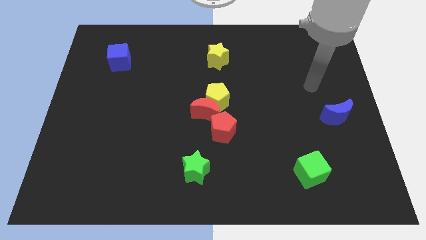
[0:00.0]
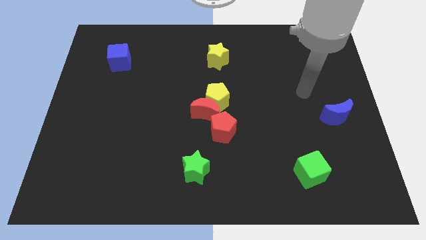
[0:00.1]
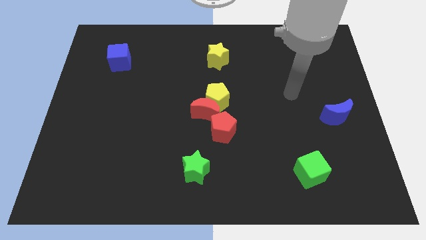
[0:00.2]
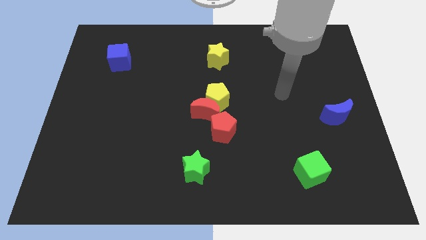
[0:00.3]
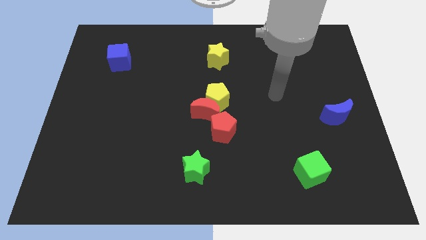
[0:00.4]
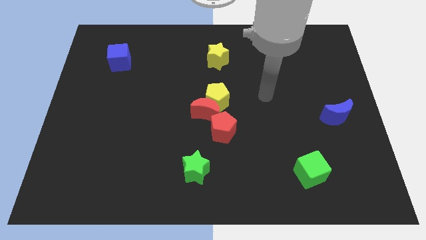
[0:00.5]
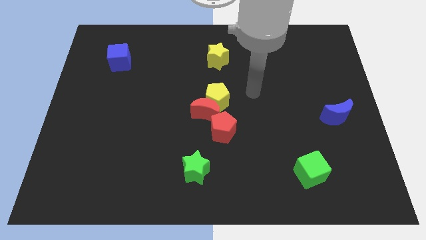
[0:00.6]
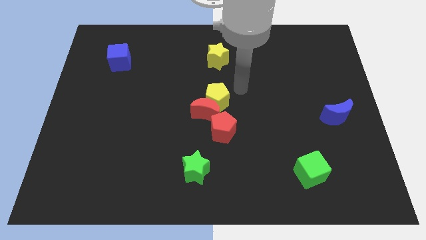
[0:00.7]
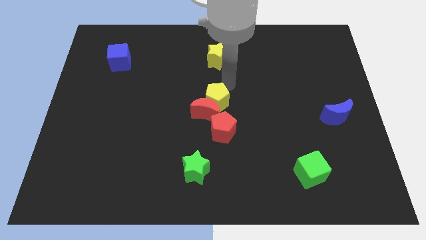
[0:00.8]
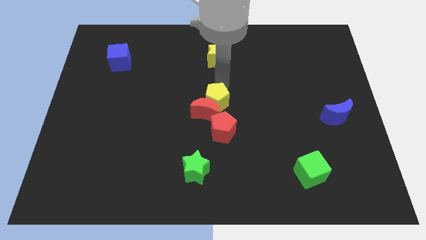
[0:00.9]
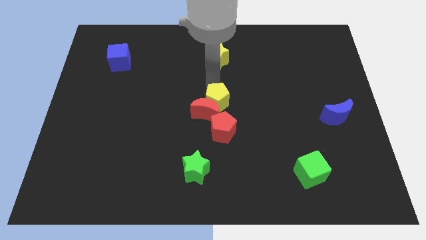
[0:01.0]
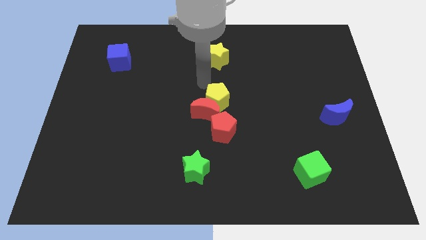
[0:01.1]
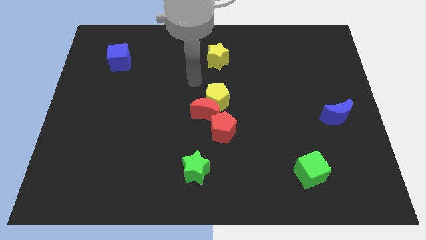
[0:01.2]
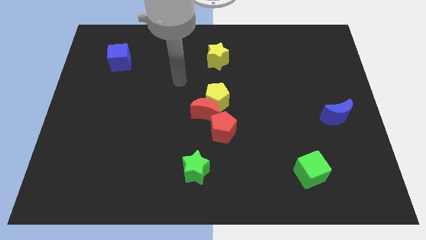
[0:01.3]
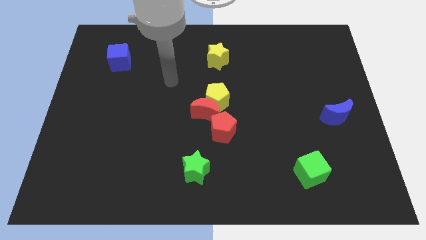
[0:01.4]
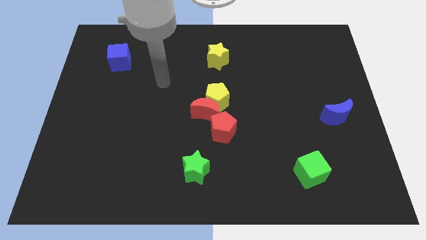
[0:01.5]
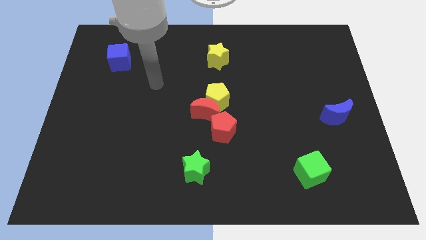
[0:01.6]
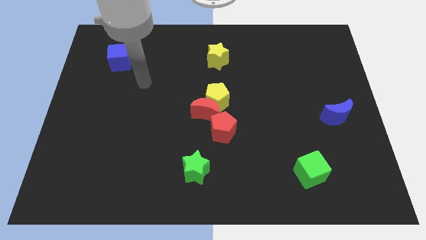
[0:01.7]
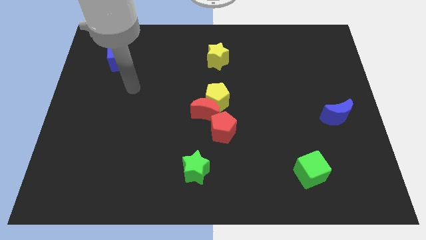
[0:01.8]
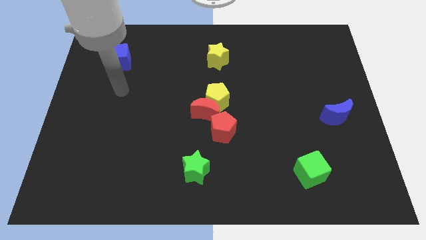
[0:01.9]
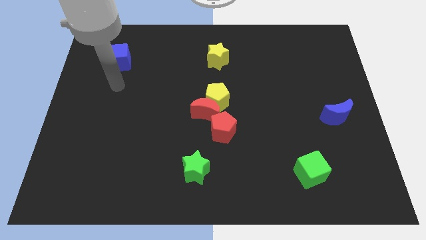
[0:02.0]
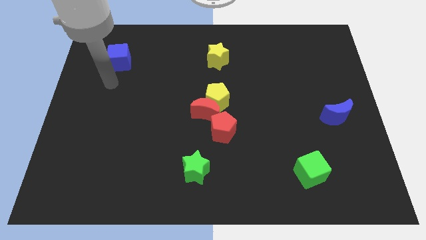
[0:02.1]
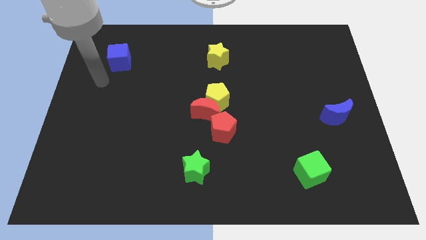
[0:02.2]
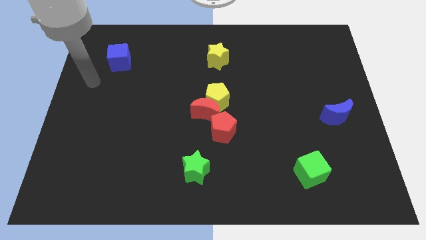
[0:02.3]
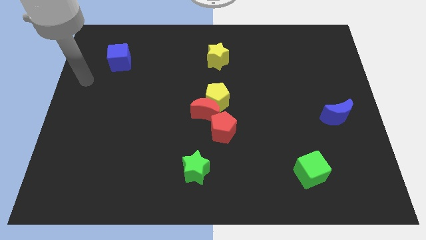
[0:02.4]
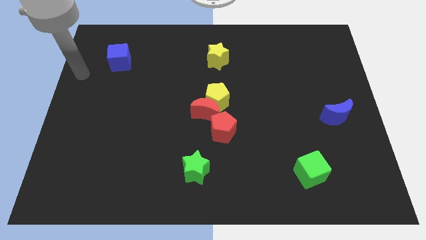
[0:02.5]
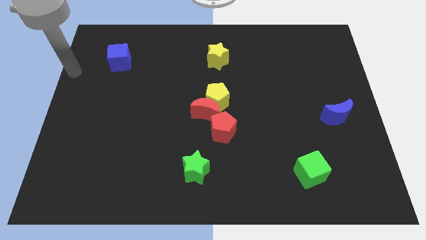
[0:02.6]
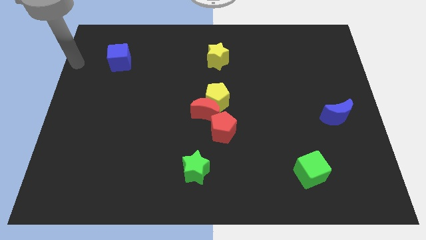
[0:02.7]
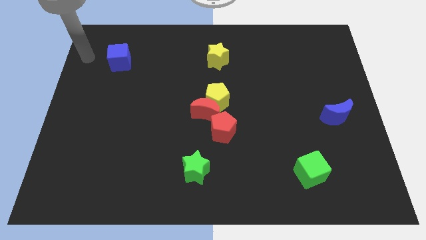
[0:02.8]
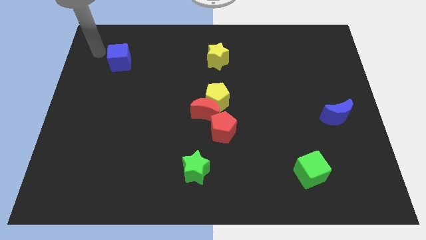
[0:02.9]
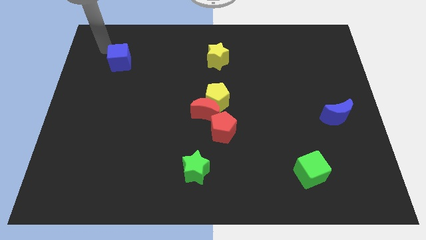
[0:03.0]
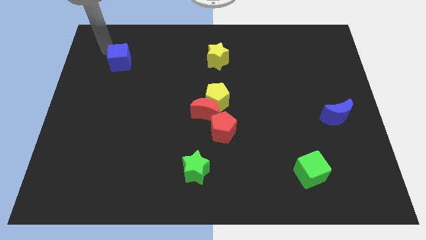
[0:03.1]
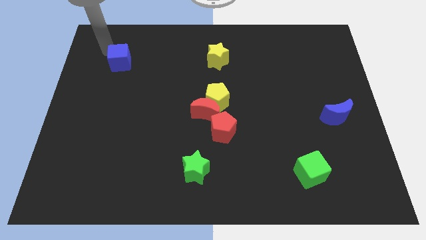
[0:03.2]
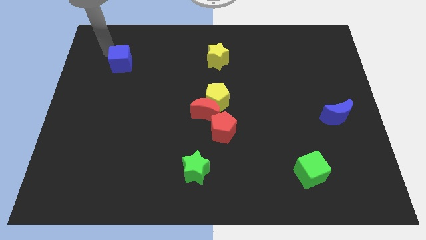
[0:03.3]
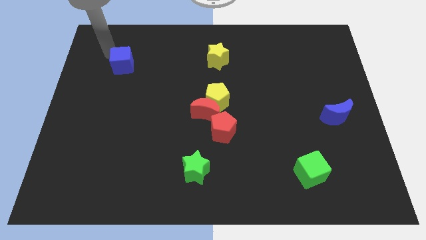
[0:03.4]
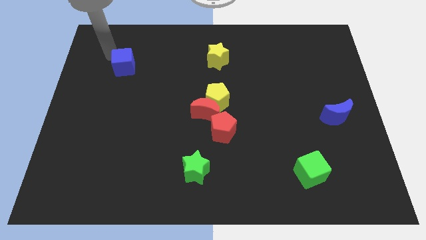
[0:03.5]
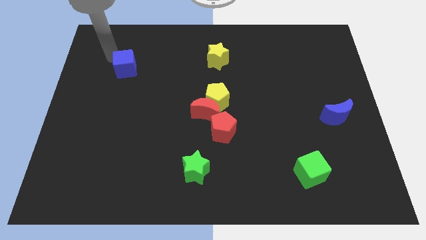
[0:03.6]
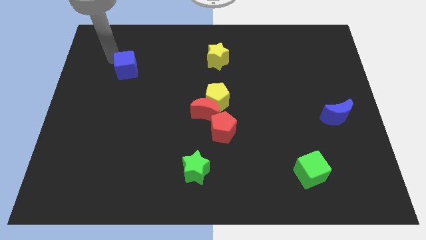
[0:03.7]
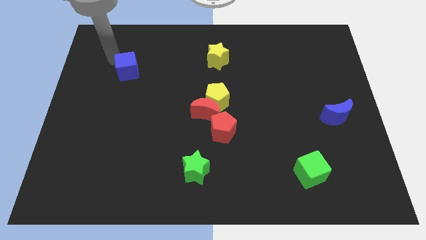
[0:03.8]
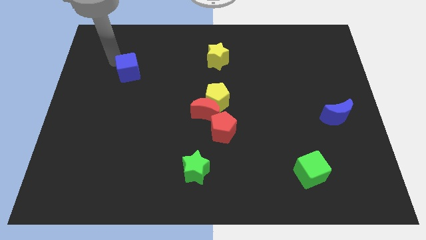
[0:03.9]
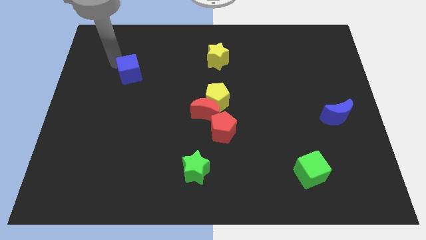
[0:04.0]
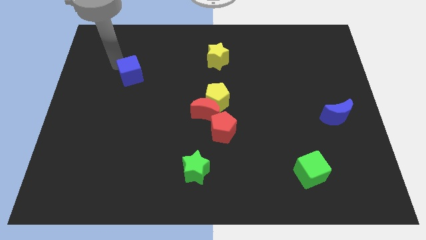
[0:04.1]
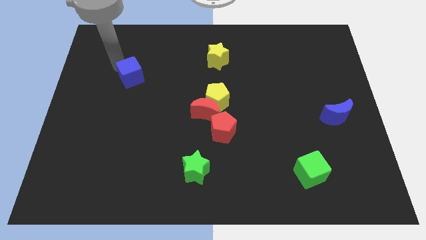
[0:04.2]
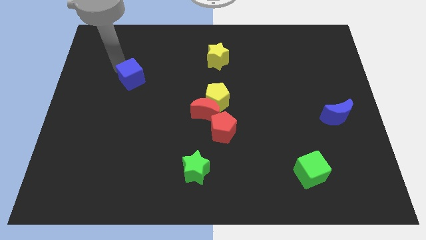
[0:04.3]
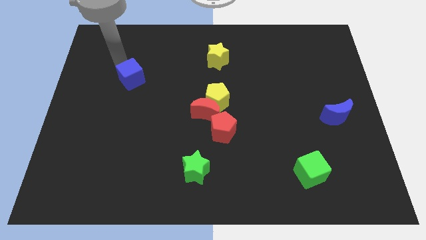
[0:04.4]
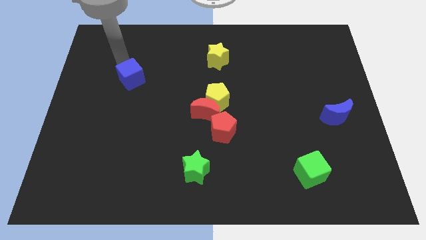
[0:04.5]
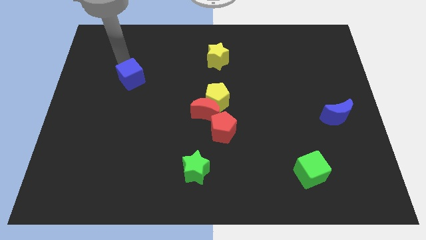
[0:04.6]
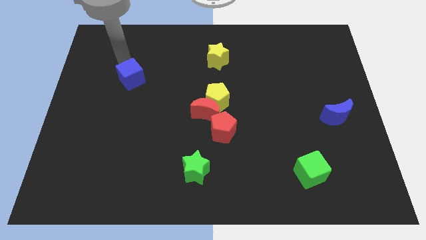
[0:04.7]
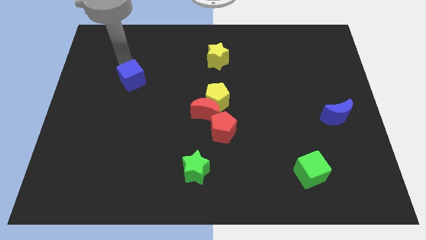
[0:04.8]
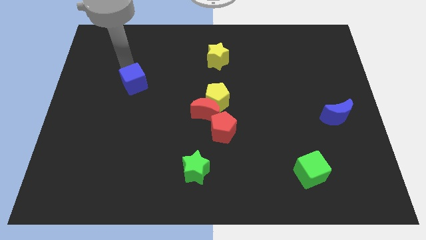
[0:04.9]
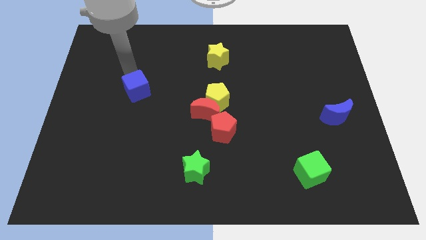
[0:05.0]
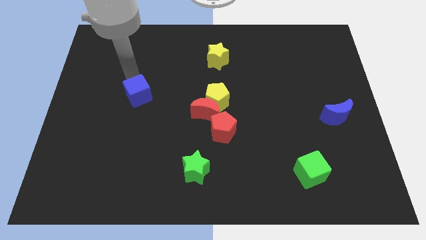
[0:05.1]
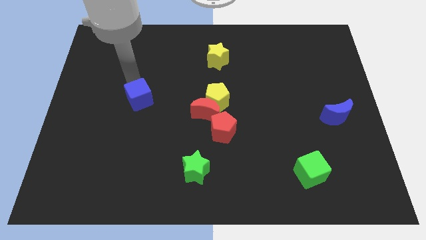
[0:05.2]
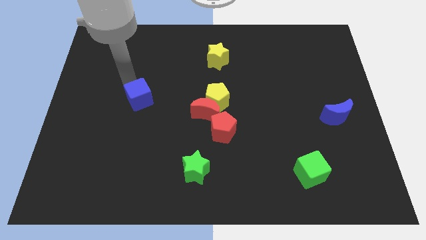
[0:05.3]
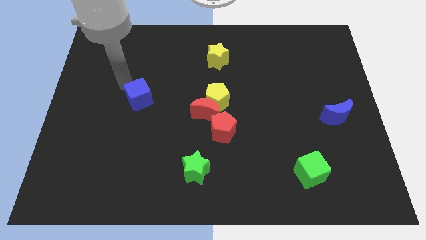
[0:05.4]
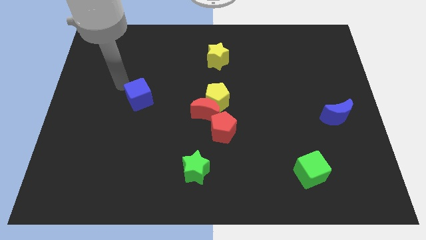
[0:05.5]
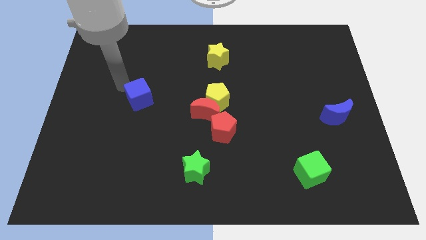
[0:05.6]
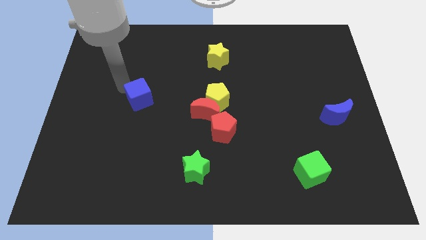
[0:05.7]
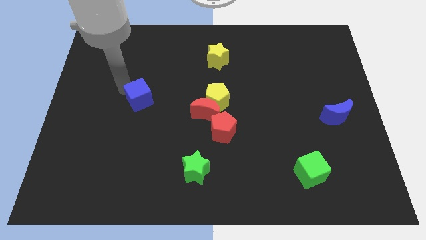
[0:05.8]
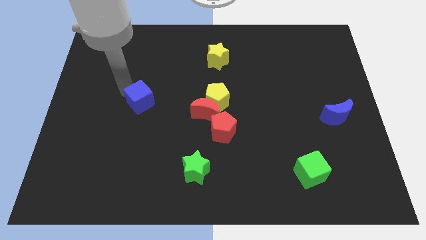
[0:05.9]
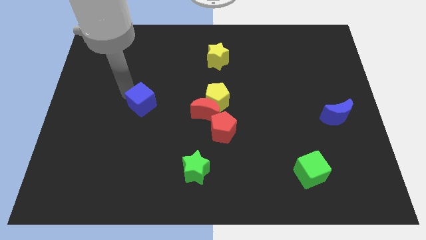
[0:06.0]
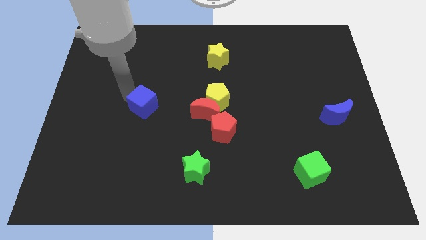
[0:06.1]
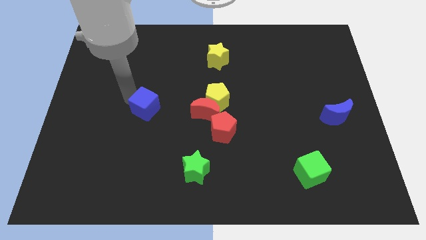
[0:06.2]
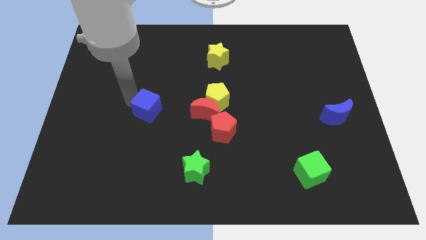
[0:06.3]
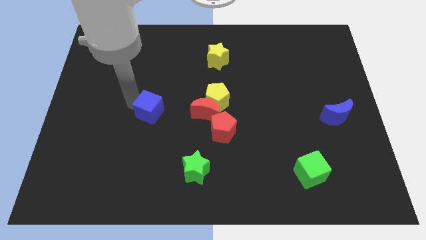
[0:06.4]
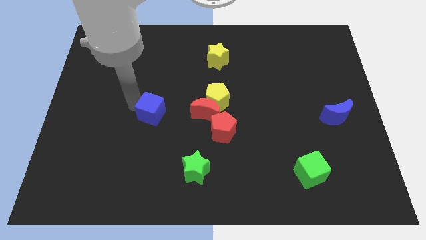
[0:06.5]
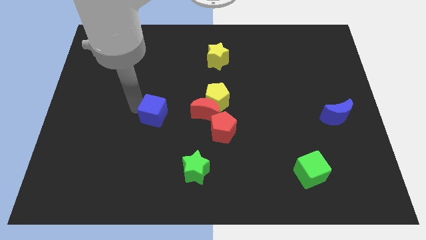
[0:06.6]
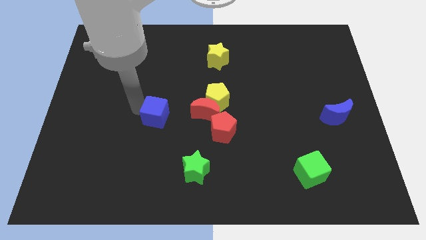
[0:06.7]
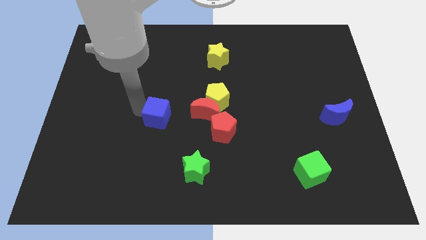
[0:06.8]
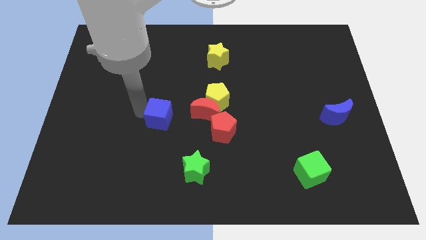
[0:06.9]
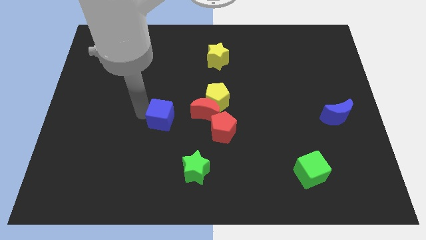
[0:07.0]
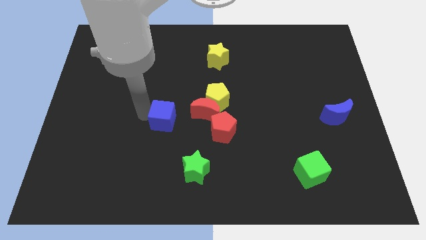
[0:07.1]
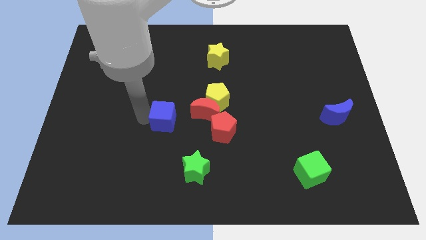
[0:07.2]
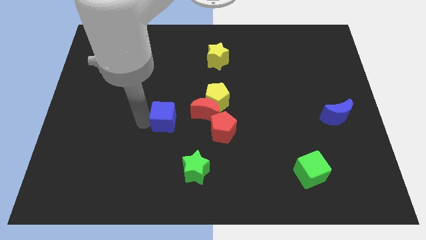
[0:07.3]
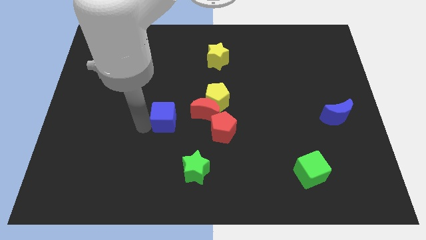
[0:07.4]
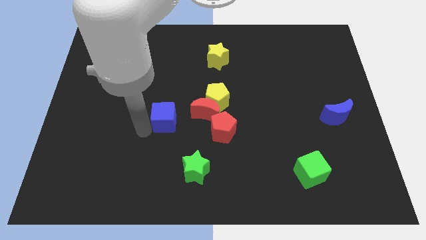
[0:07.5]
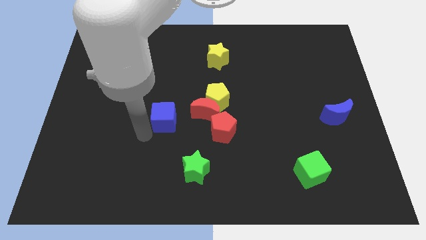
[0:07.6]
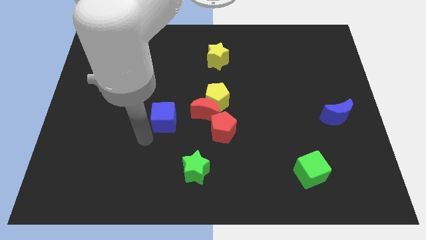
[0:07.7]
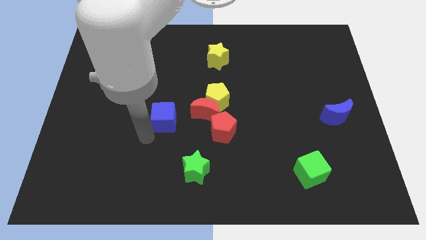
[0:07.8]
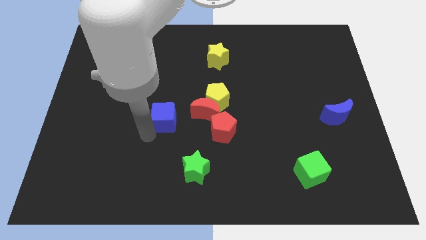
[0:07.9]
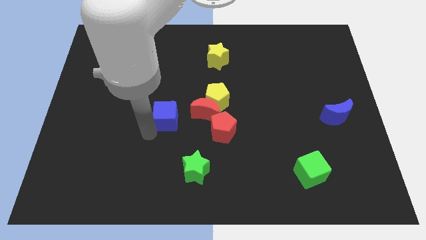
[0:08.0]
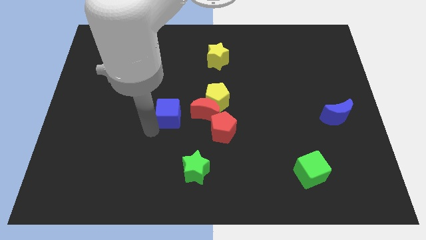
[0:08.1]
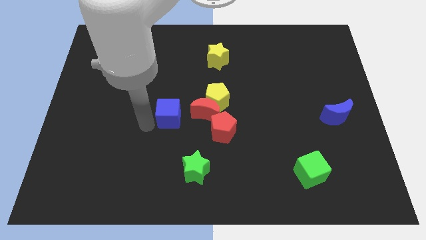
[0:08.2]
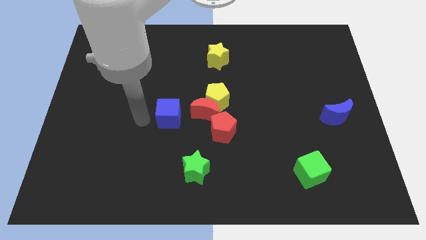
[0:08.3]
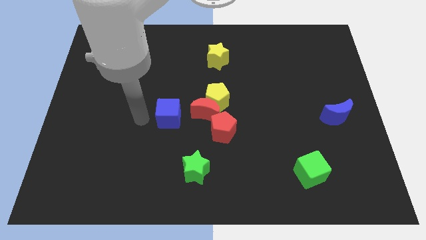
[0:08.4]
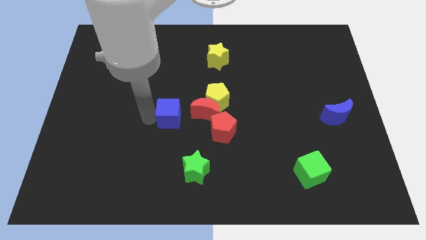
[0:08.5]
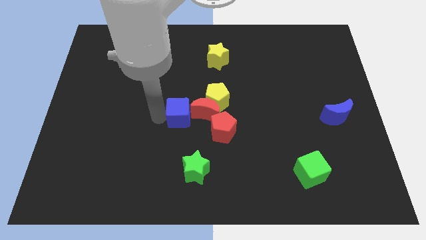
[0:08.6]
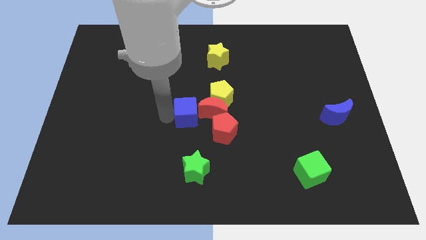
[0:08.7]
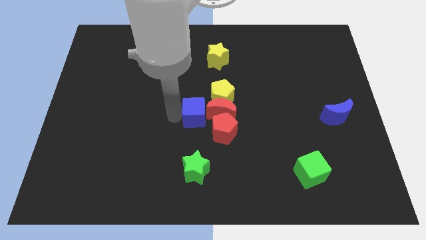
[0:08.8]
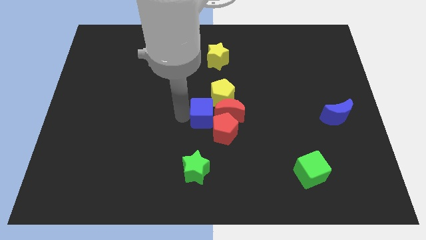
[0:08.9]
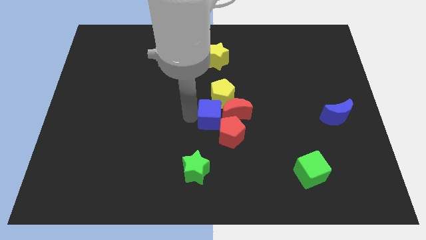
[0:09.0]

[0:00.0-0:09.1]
slide the blue cube next to the red moon
